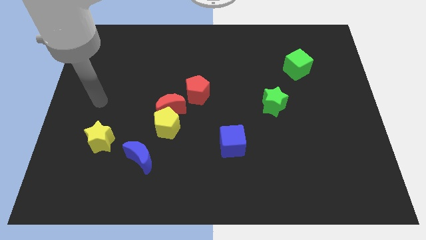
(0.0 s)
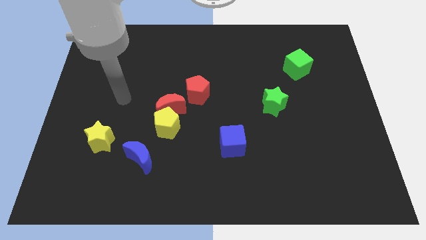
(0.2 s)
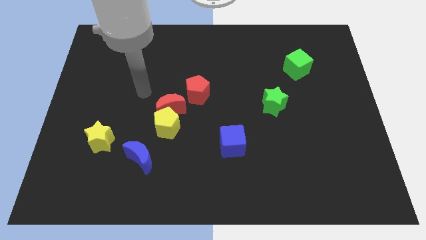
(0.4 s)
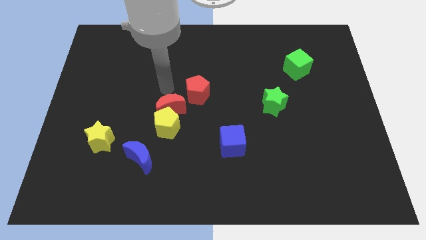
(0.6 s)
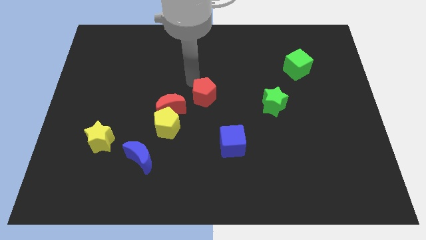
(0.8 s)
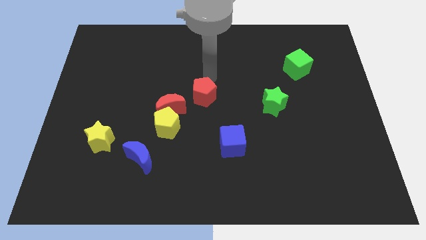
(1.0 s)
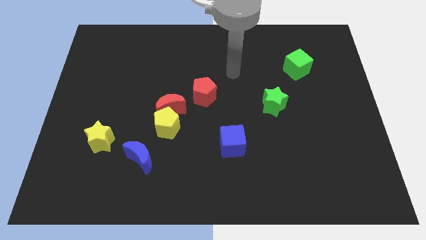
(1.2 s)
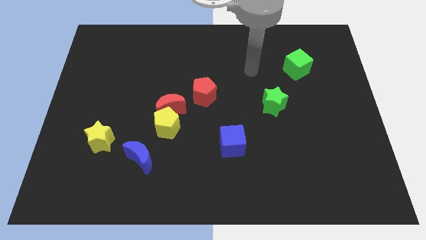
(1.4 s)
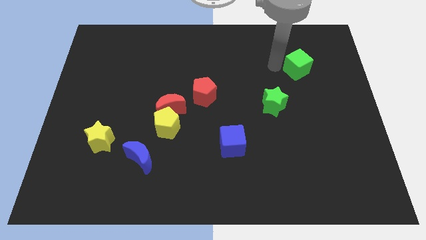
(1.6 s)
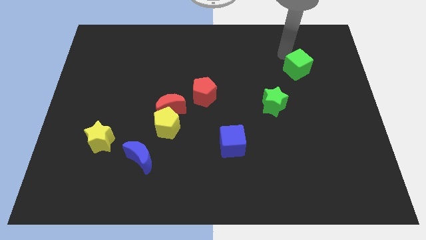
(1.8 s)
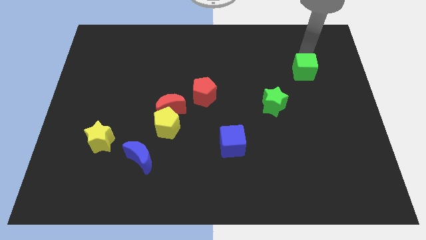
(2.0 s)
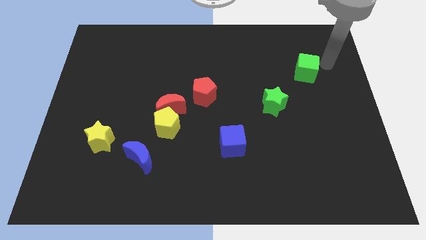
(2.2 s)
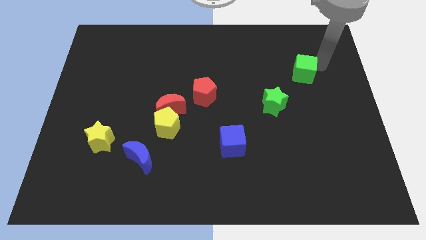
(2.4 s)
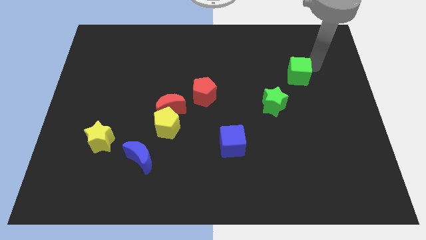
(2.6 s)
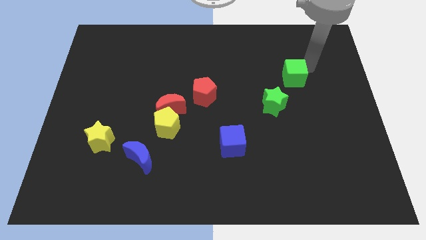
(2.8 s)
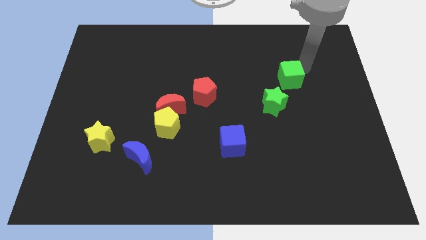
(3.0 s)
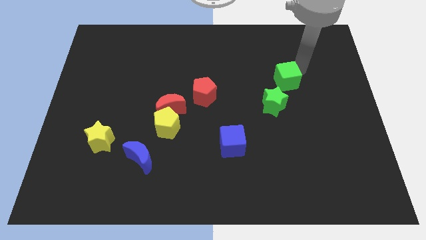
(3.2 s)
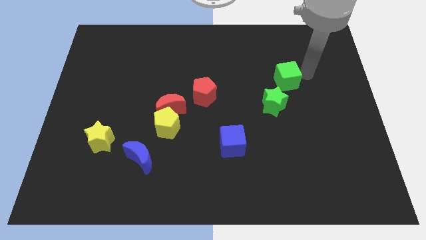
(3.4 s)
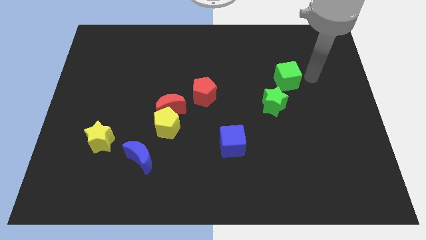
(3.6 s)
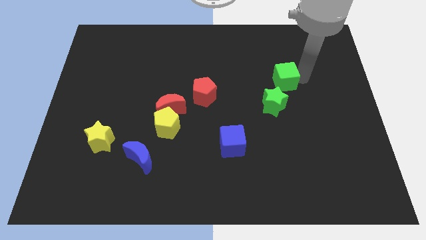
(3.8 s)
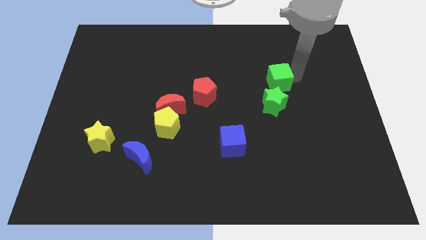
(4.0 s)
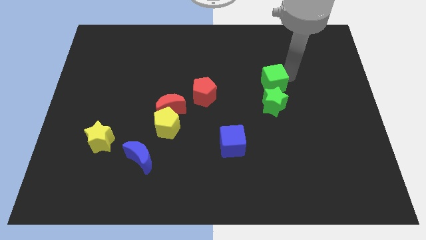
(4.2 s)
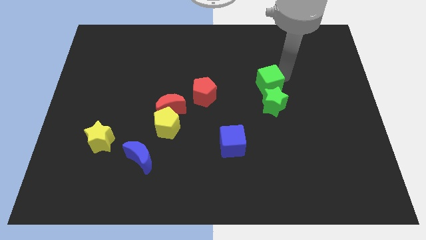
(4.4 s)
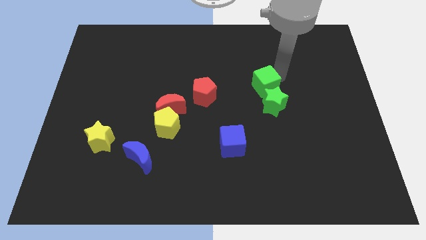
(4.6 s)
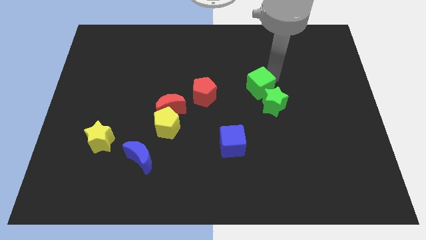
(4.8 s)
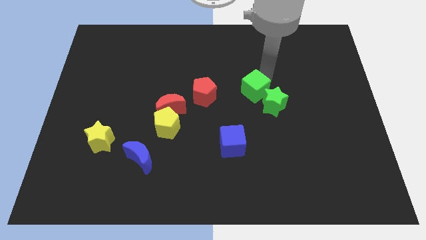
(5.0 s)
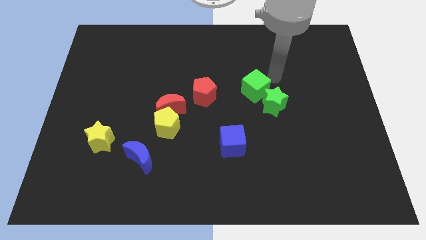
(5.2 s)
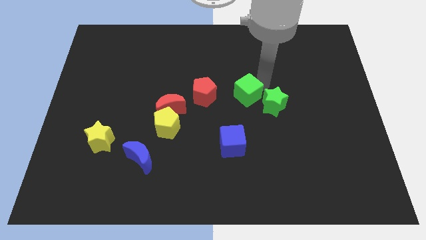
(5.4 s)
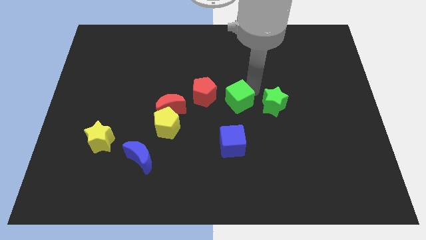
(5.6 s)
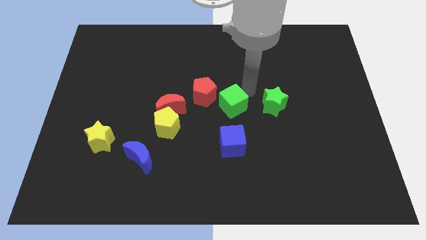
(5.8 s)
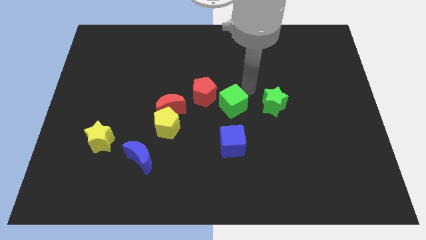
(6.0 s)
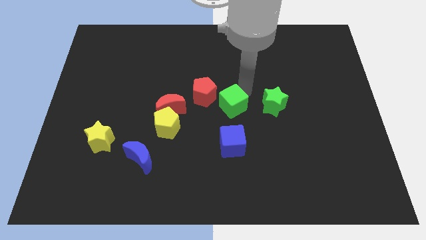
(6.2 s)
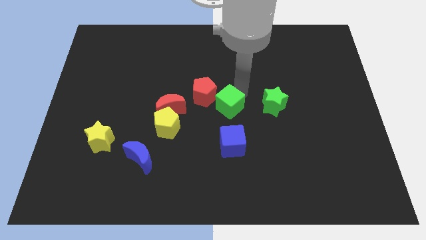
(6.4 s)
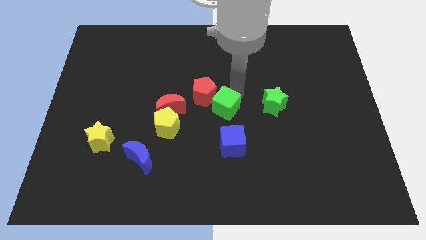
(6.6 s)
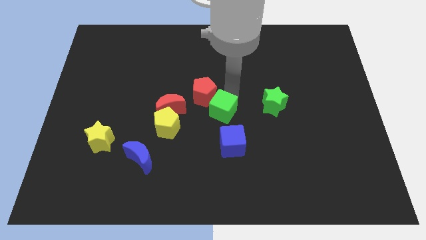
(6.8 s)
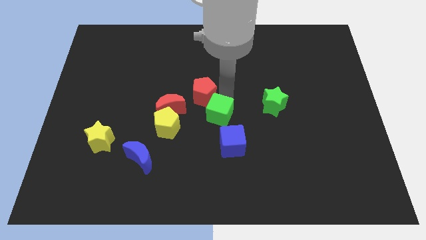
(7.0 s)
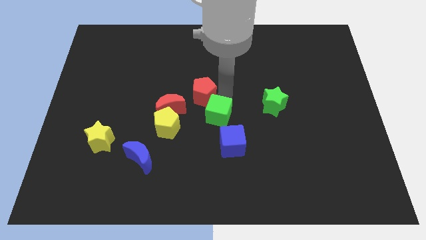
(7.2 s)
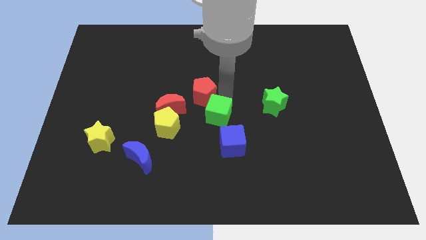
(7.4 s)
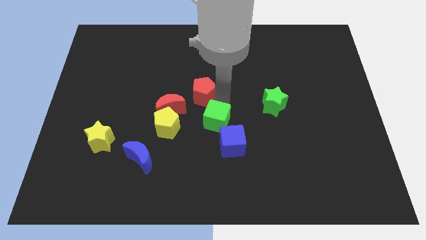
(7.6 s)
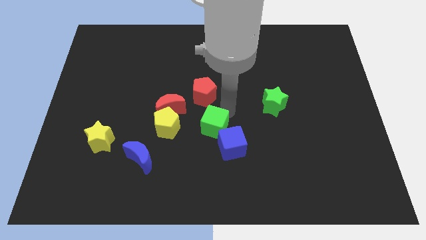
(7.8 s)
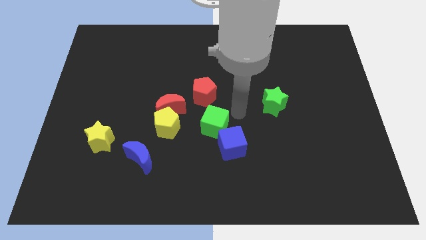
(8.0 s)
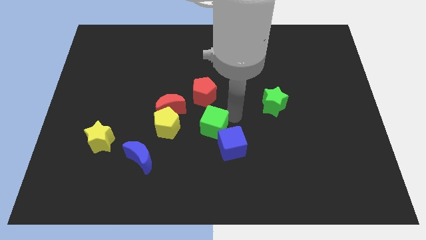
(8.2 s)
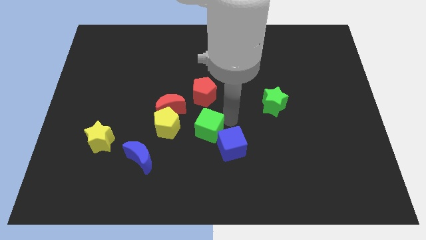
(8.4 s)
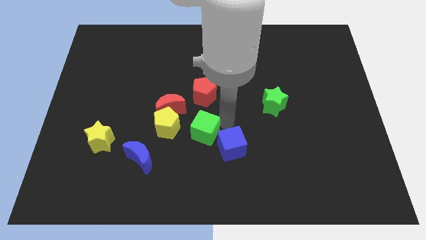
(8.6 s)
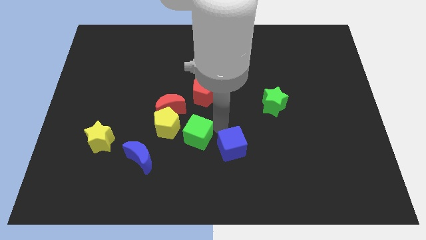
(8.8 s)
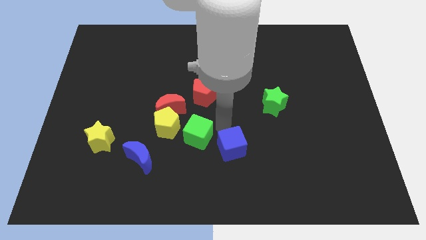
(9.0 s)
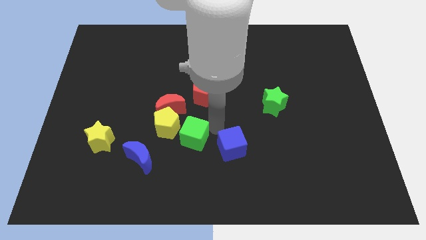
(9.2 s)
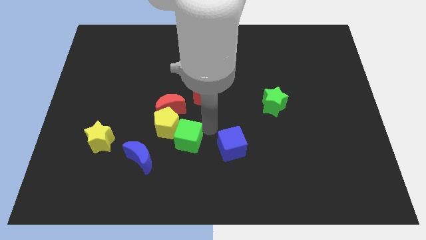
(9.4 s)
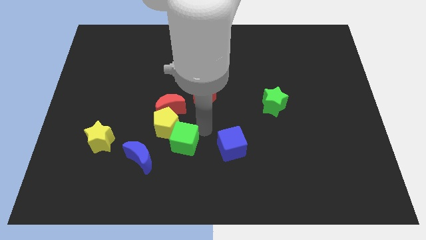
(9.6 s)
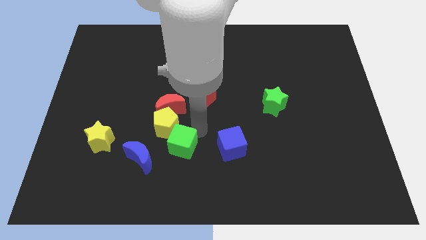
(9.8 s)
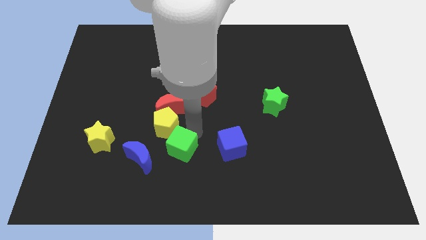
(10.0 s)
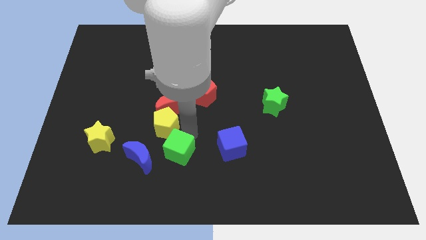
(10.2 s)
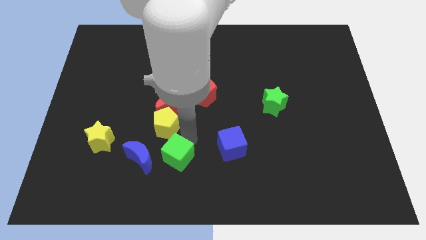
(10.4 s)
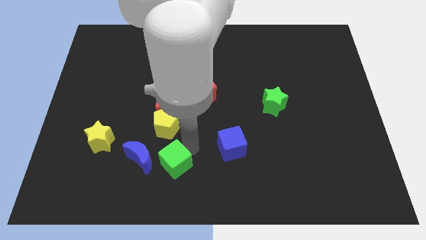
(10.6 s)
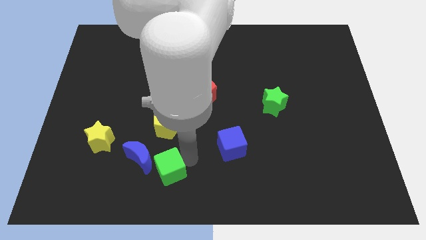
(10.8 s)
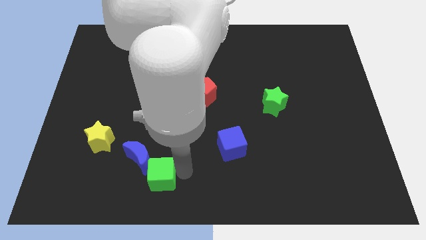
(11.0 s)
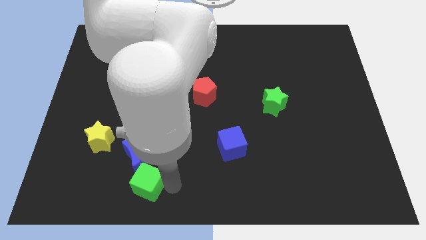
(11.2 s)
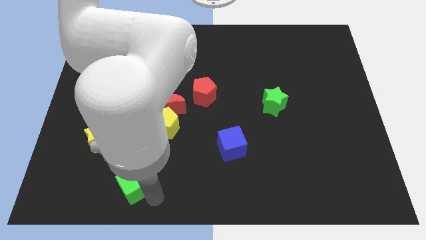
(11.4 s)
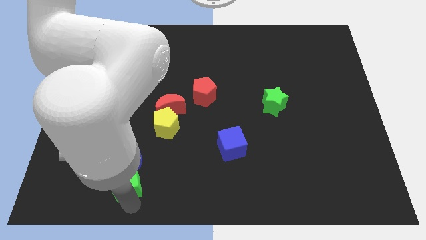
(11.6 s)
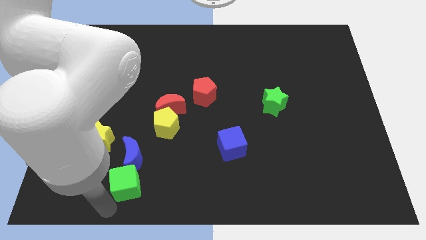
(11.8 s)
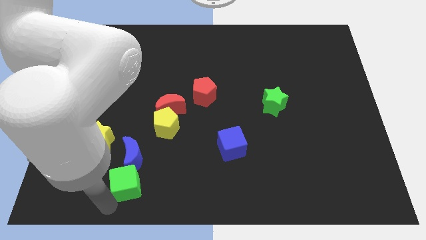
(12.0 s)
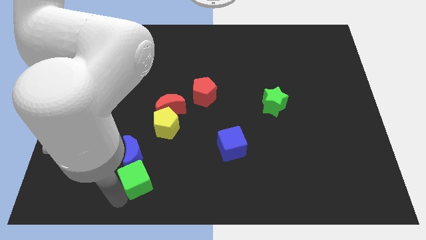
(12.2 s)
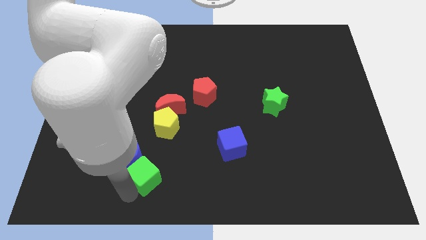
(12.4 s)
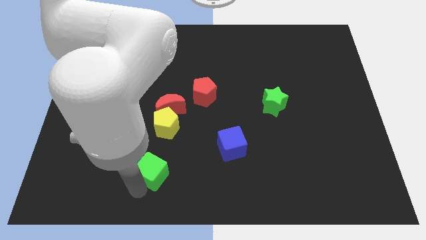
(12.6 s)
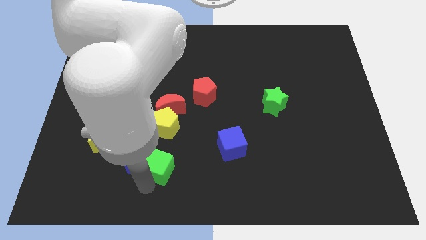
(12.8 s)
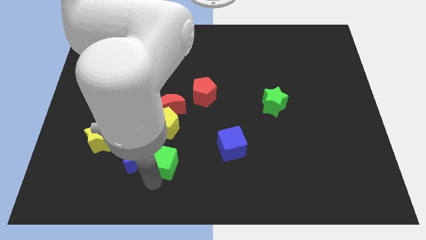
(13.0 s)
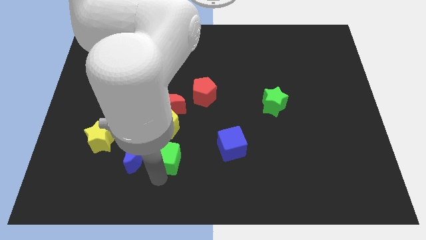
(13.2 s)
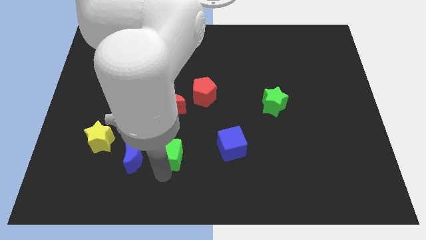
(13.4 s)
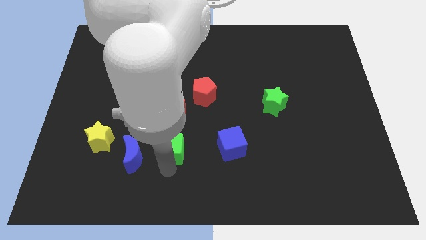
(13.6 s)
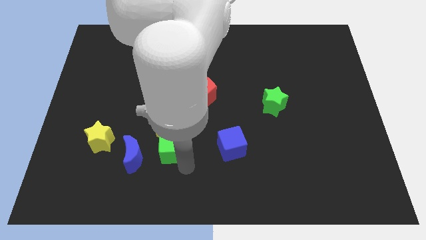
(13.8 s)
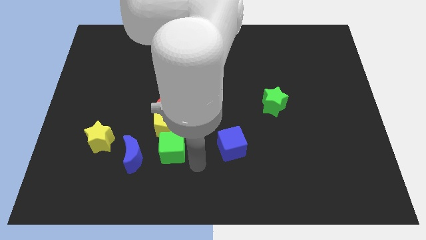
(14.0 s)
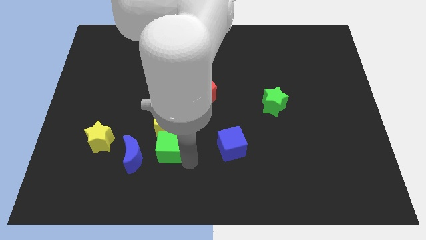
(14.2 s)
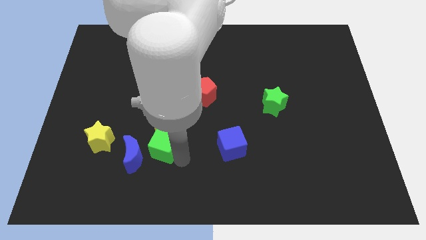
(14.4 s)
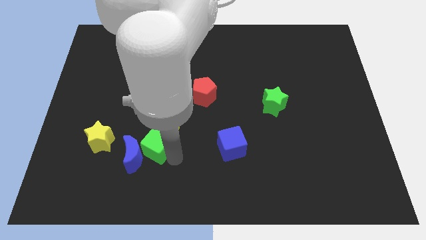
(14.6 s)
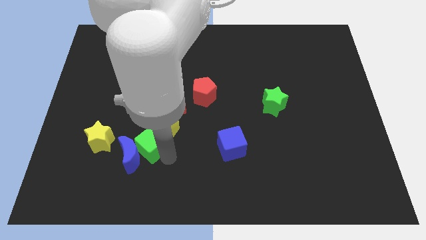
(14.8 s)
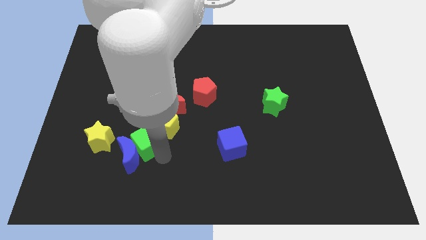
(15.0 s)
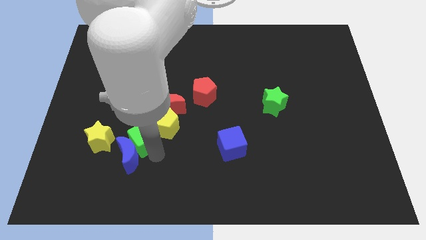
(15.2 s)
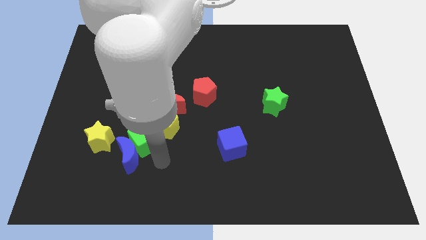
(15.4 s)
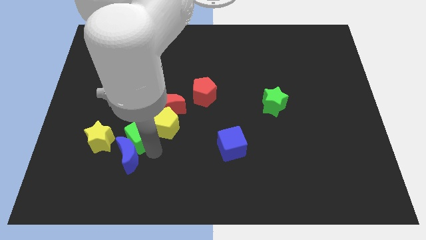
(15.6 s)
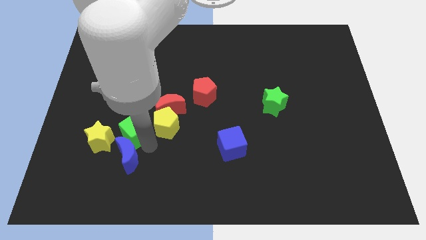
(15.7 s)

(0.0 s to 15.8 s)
push the green cube diagonally up and to the right of the yellow star

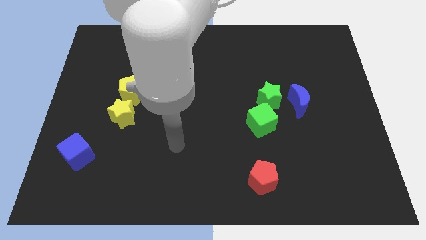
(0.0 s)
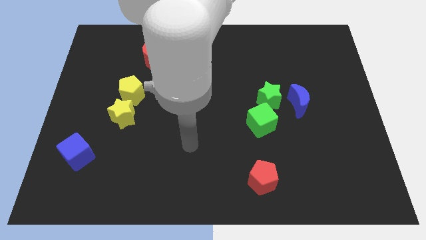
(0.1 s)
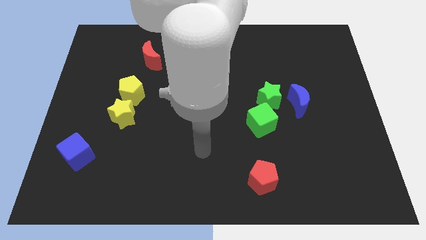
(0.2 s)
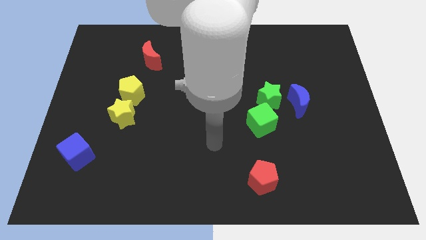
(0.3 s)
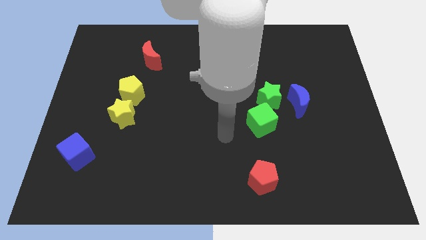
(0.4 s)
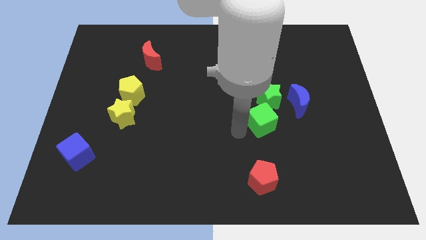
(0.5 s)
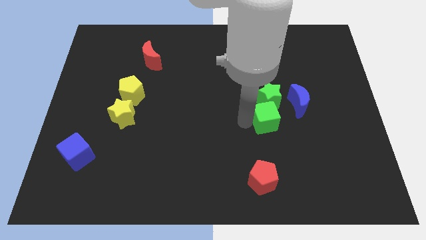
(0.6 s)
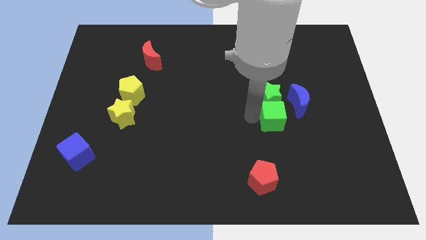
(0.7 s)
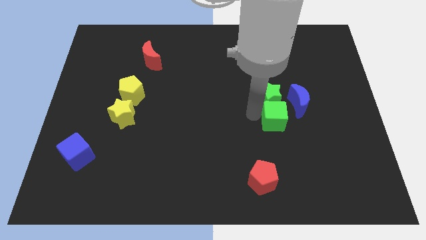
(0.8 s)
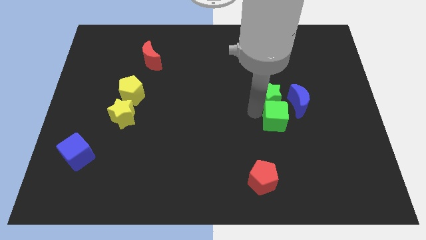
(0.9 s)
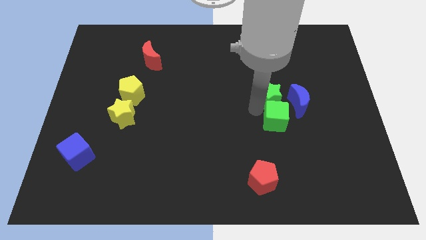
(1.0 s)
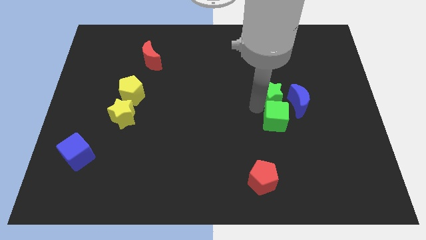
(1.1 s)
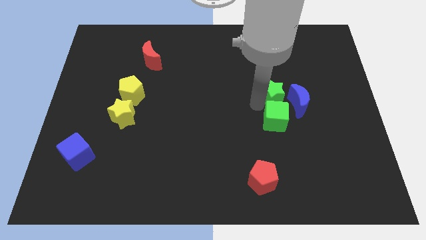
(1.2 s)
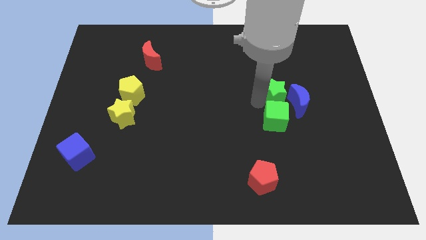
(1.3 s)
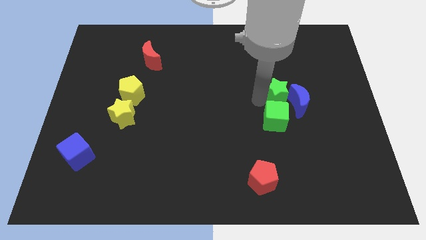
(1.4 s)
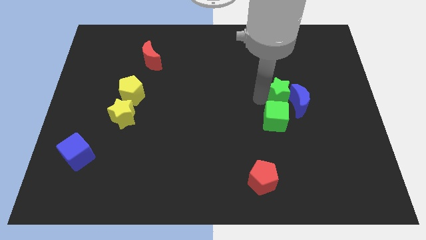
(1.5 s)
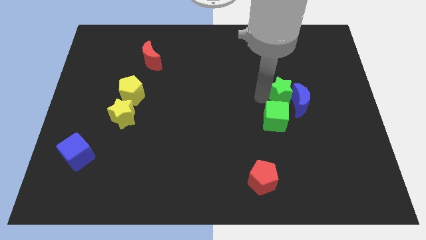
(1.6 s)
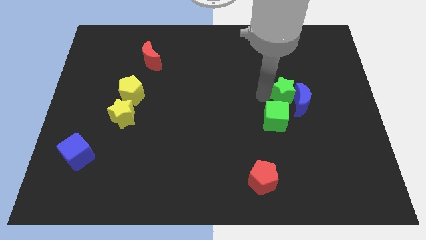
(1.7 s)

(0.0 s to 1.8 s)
move the green star to the top side of the blue moon
